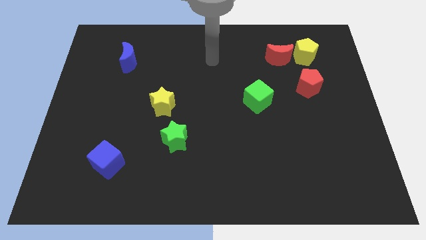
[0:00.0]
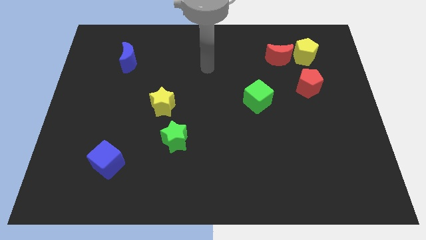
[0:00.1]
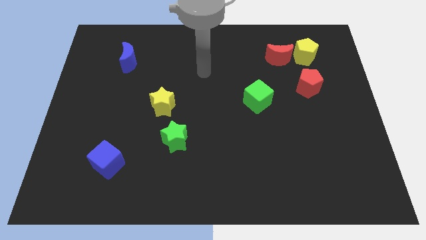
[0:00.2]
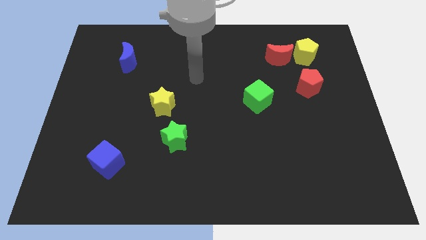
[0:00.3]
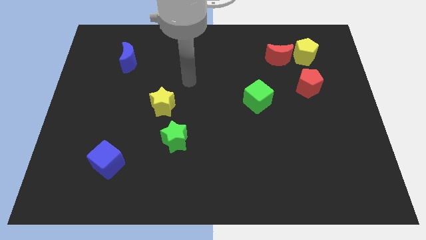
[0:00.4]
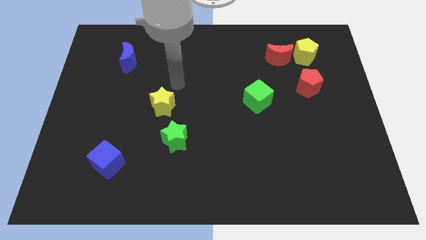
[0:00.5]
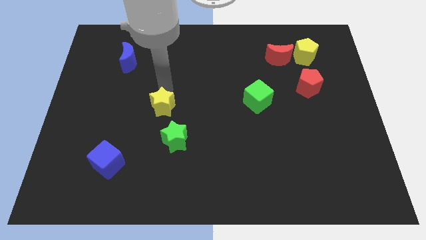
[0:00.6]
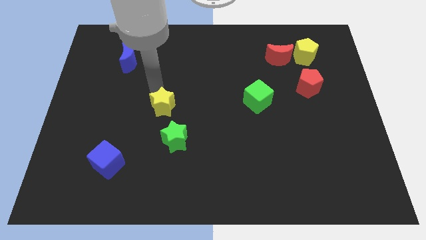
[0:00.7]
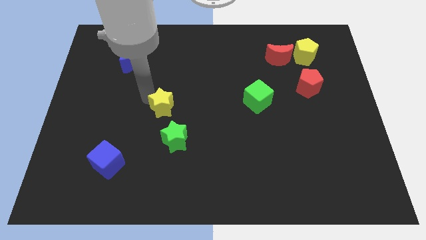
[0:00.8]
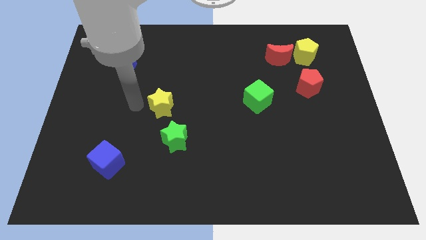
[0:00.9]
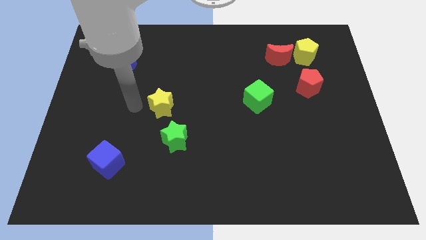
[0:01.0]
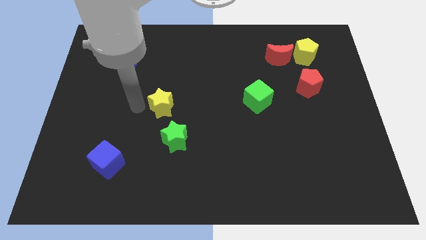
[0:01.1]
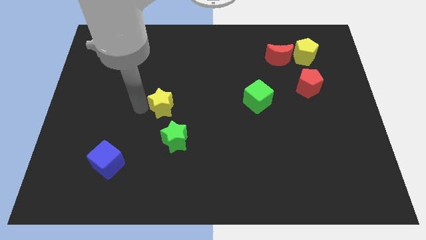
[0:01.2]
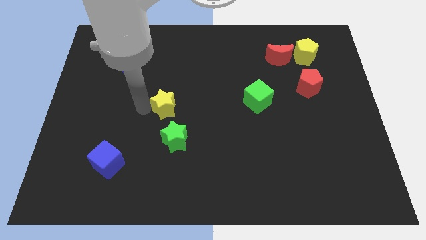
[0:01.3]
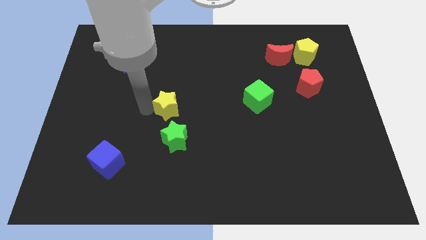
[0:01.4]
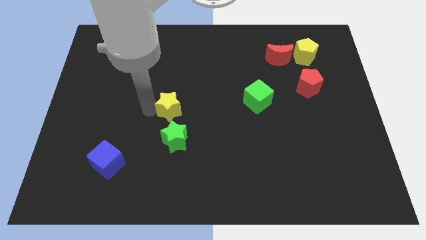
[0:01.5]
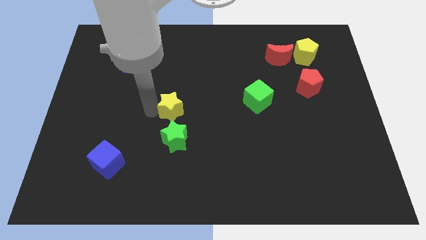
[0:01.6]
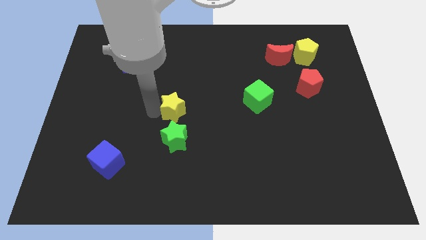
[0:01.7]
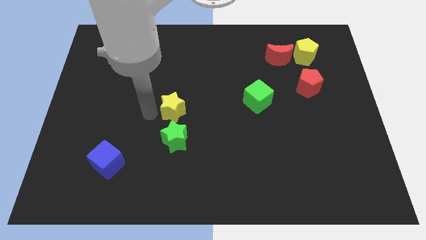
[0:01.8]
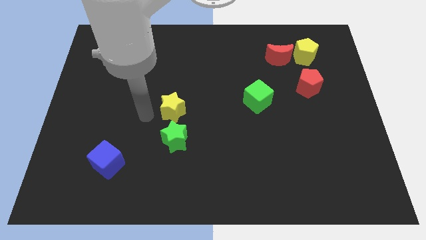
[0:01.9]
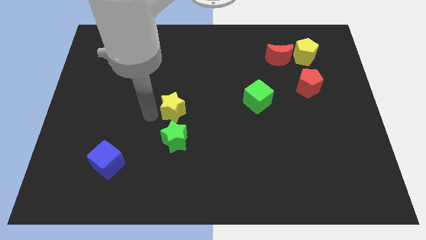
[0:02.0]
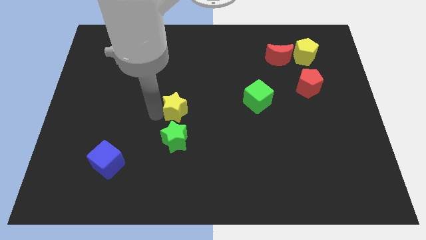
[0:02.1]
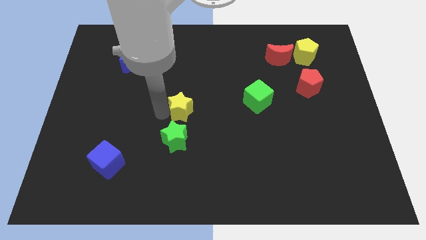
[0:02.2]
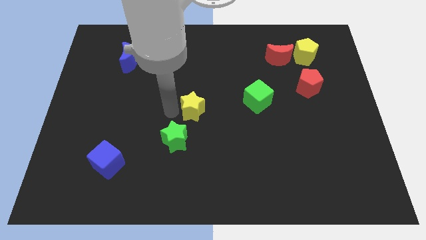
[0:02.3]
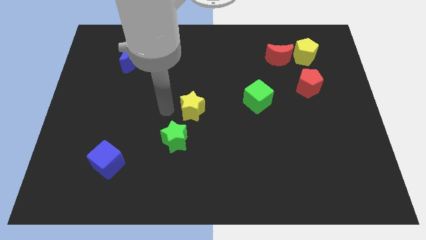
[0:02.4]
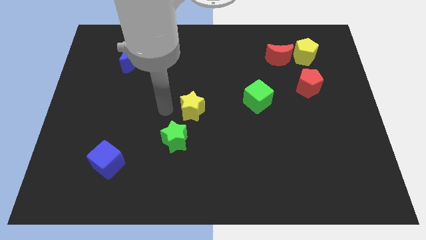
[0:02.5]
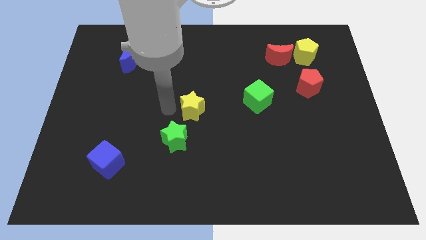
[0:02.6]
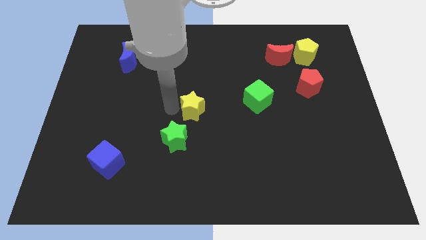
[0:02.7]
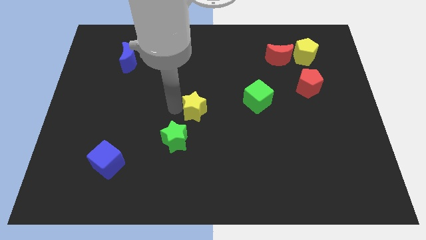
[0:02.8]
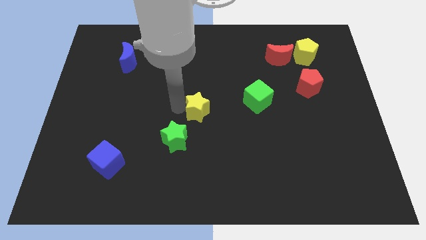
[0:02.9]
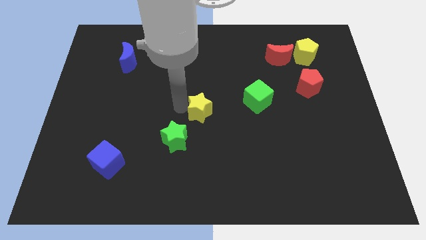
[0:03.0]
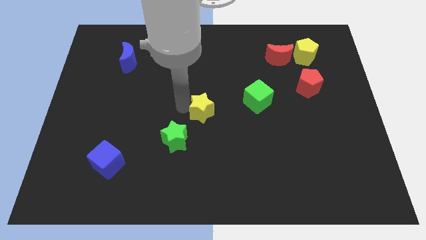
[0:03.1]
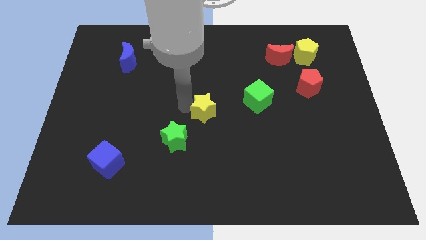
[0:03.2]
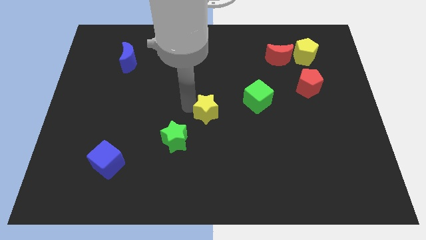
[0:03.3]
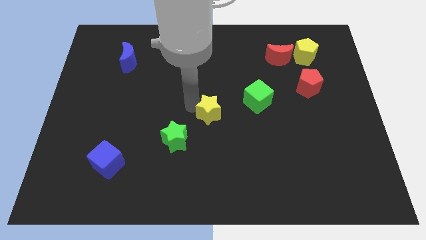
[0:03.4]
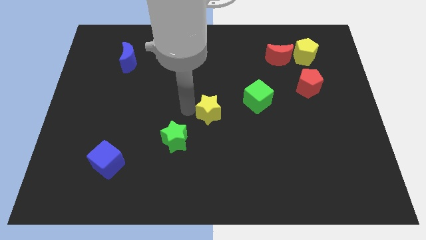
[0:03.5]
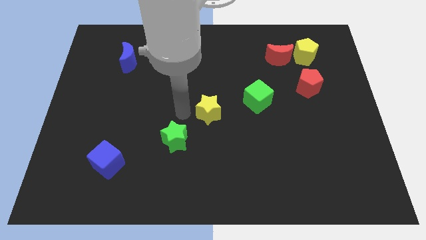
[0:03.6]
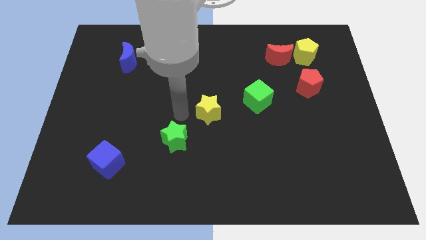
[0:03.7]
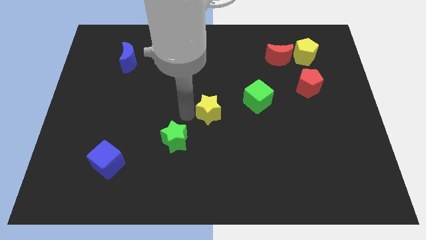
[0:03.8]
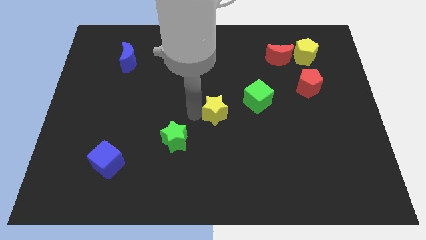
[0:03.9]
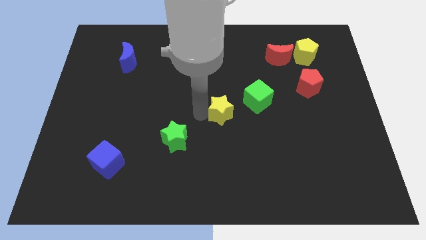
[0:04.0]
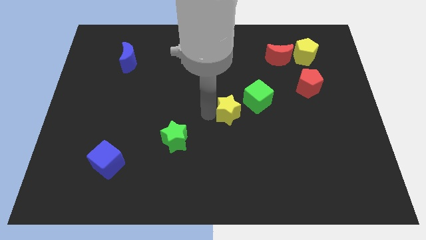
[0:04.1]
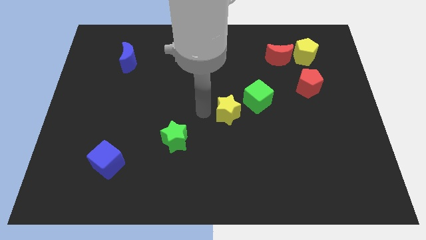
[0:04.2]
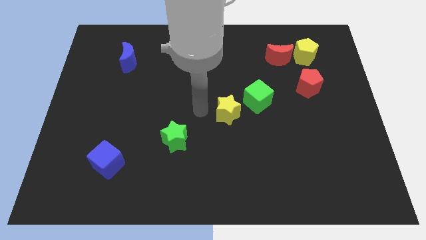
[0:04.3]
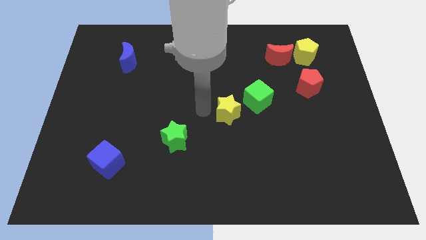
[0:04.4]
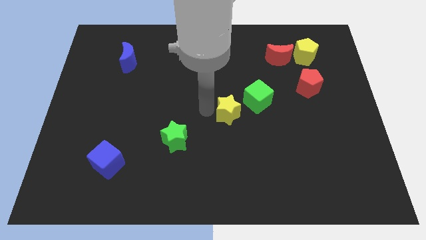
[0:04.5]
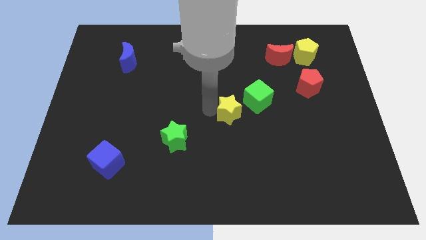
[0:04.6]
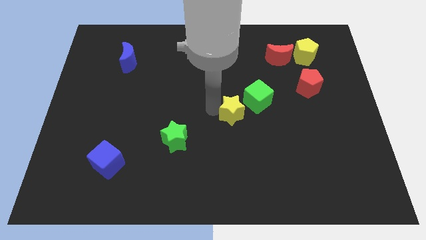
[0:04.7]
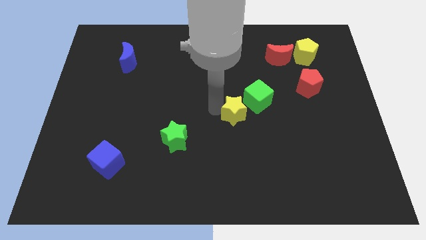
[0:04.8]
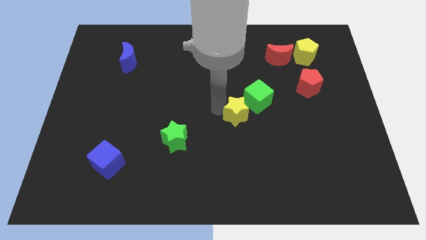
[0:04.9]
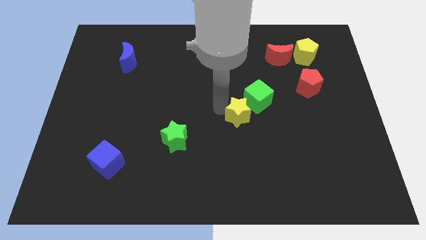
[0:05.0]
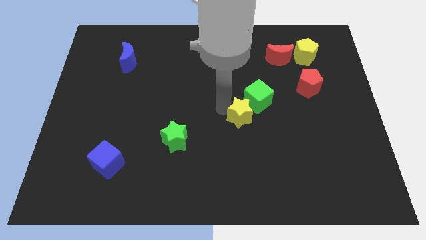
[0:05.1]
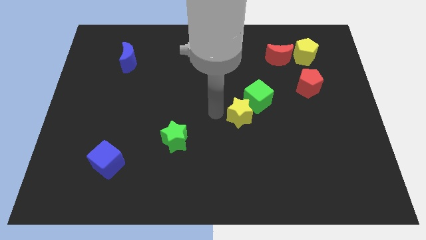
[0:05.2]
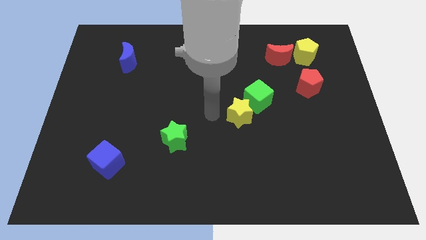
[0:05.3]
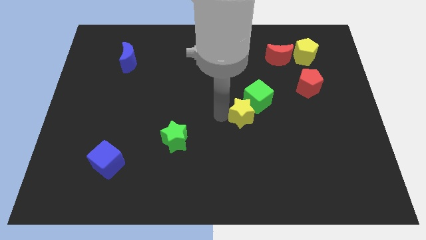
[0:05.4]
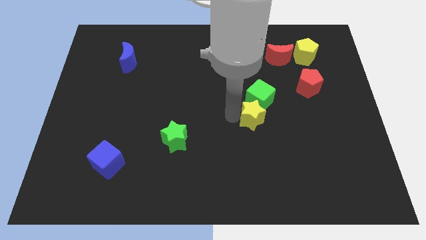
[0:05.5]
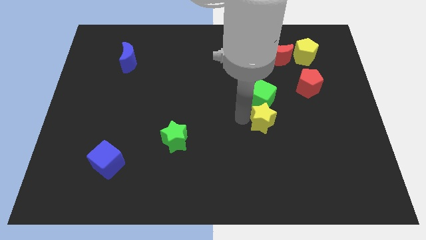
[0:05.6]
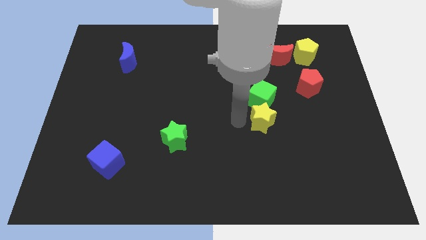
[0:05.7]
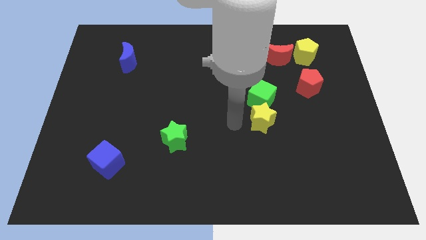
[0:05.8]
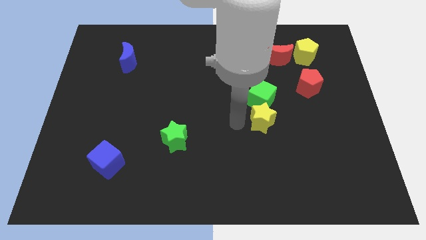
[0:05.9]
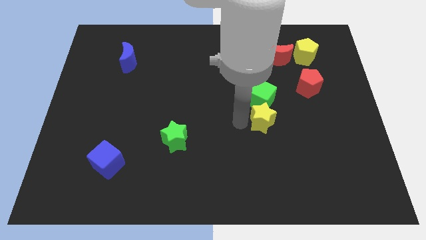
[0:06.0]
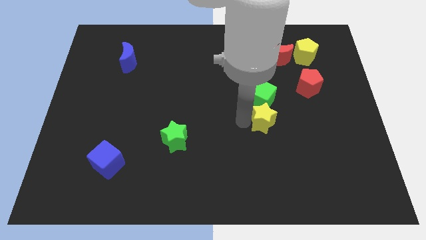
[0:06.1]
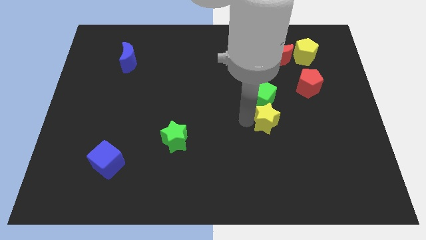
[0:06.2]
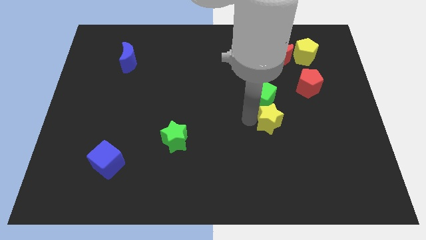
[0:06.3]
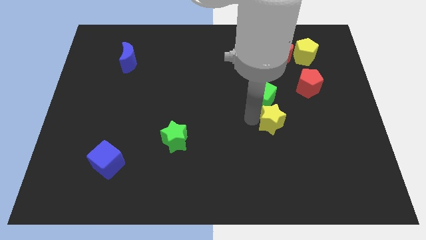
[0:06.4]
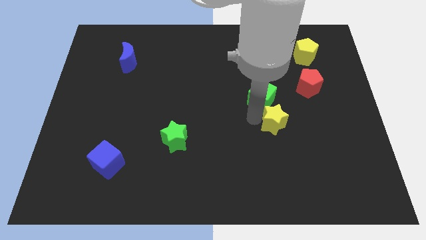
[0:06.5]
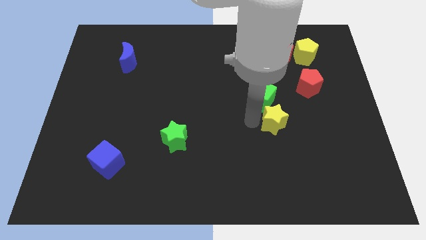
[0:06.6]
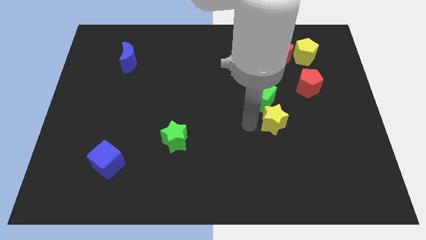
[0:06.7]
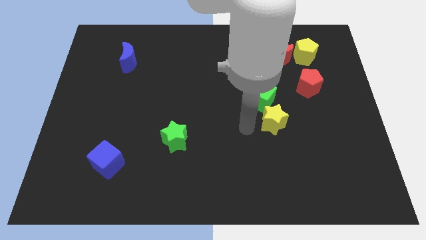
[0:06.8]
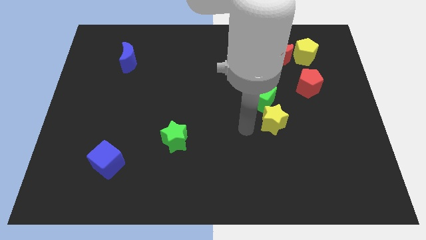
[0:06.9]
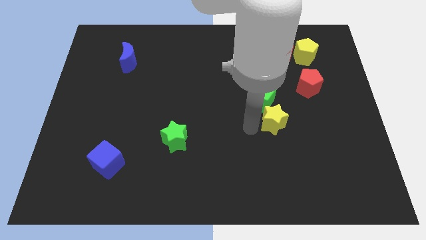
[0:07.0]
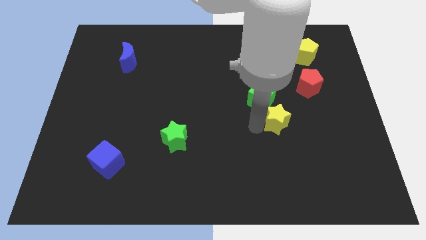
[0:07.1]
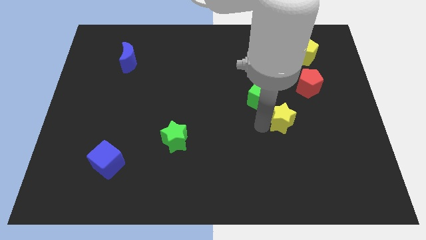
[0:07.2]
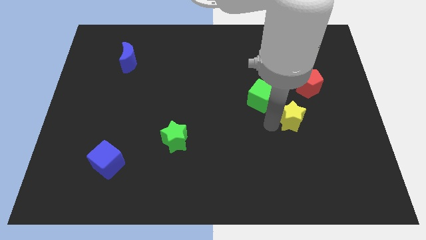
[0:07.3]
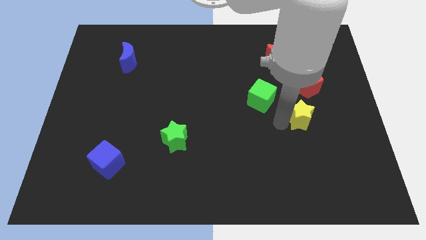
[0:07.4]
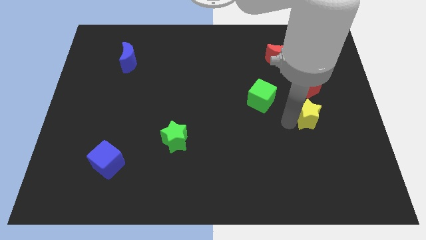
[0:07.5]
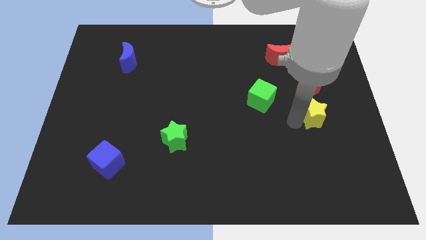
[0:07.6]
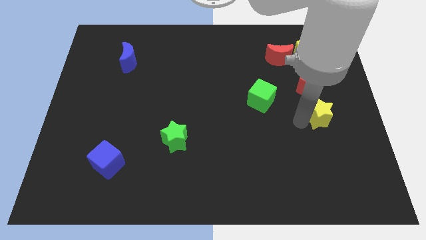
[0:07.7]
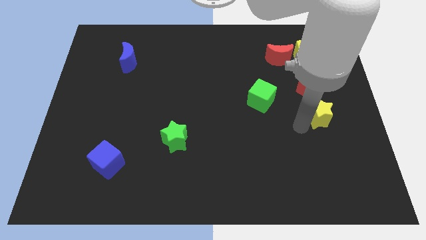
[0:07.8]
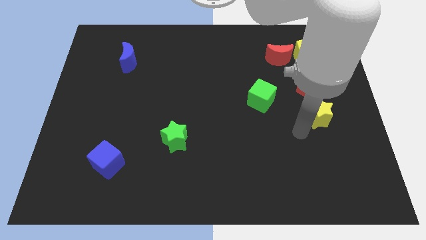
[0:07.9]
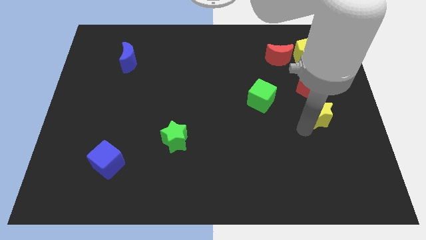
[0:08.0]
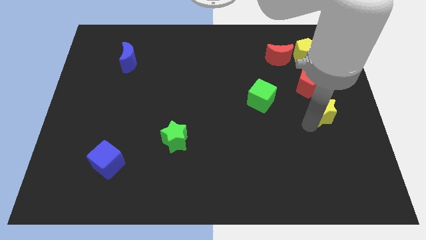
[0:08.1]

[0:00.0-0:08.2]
move the yellow star to the right side of the board
